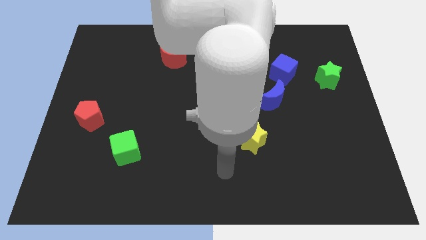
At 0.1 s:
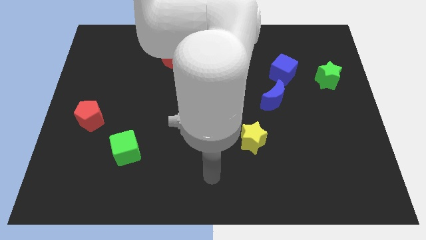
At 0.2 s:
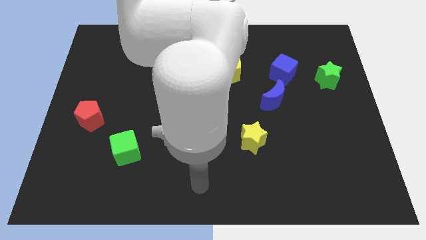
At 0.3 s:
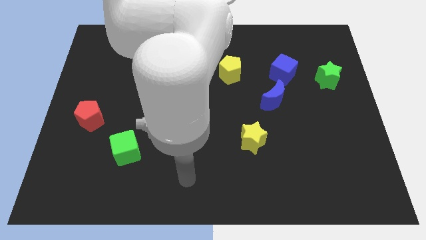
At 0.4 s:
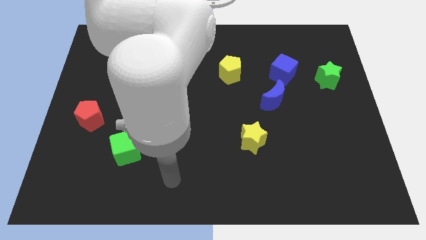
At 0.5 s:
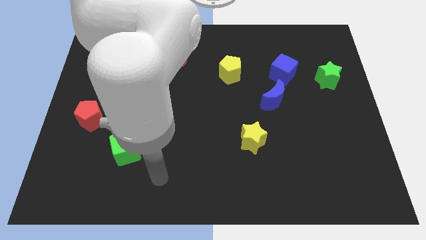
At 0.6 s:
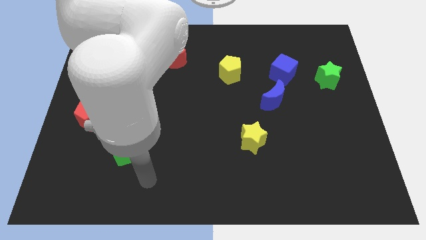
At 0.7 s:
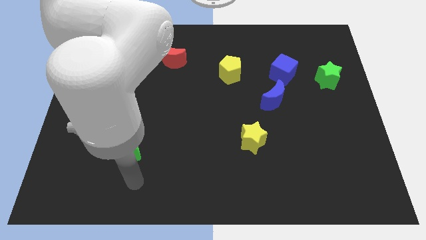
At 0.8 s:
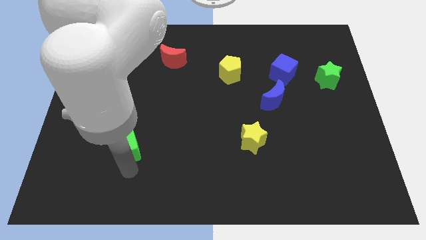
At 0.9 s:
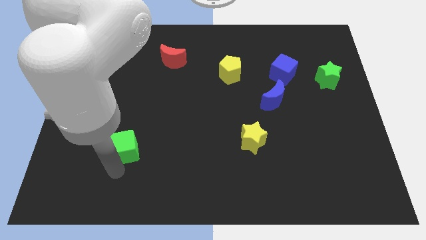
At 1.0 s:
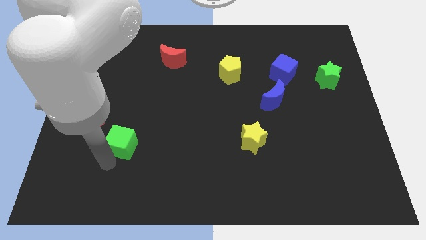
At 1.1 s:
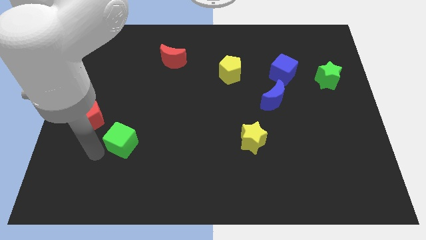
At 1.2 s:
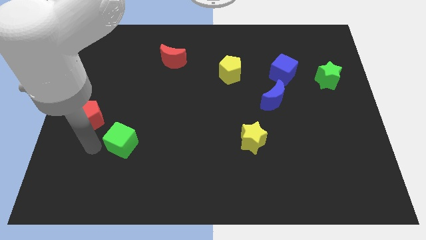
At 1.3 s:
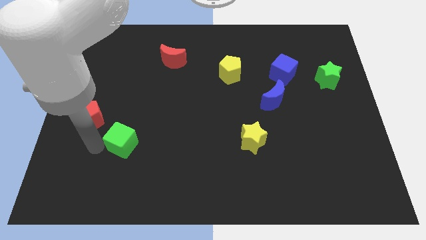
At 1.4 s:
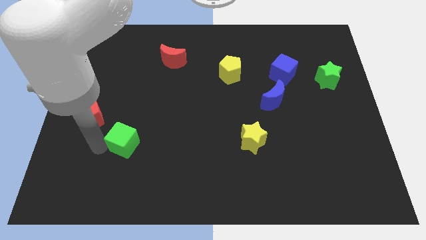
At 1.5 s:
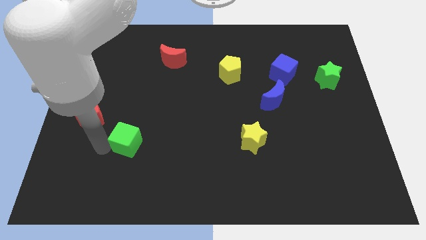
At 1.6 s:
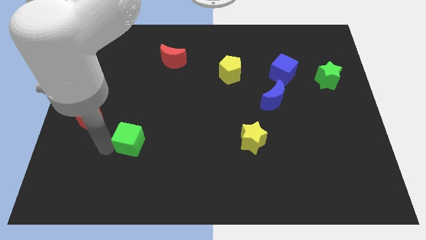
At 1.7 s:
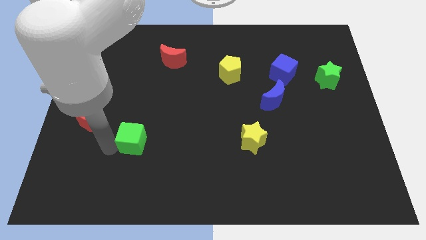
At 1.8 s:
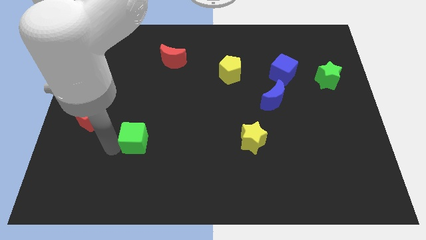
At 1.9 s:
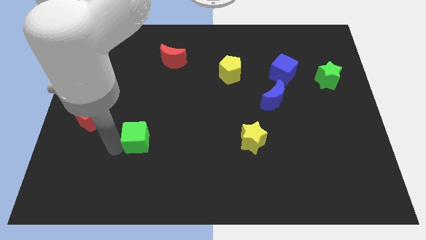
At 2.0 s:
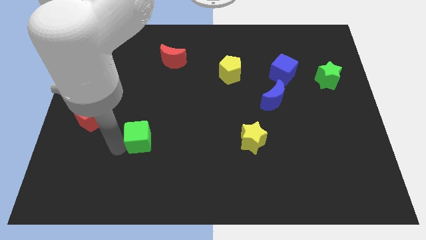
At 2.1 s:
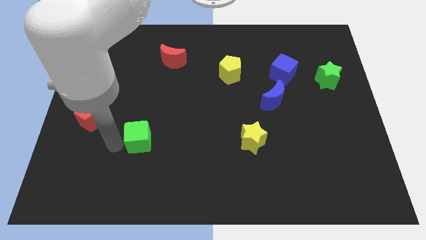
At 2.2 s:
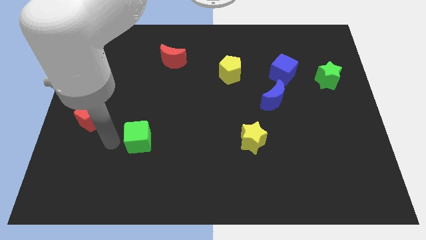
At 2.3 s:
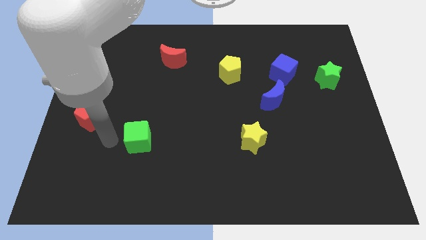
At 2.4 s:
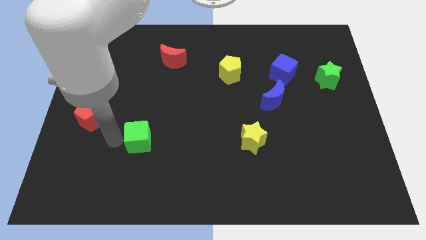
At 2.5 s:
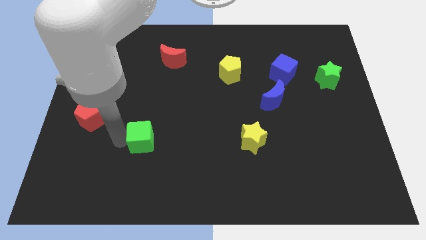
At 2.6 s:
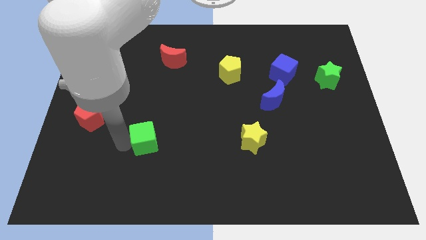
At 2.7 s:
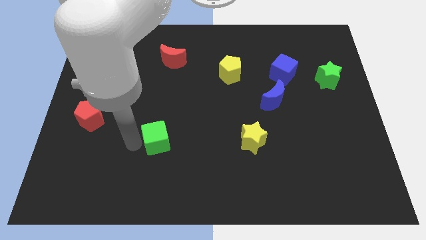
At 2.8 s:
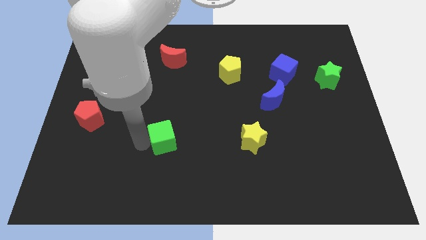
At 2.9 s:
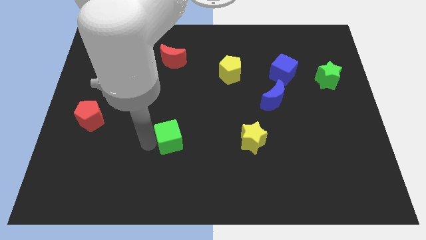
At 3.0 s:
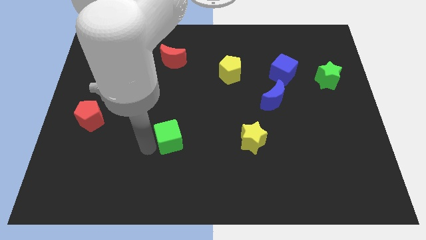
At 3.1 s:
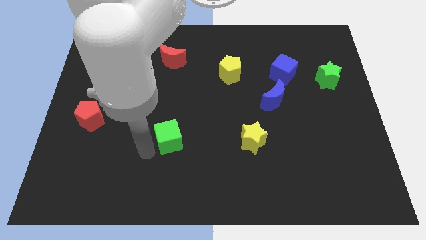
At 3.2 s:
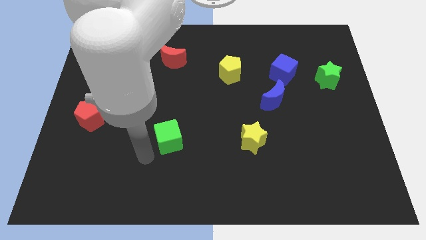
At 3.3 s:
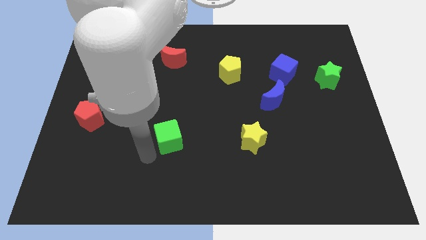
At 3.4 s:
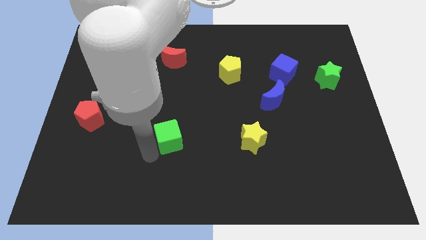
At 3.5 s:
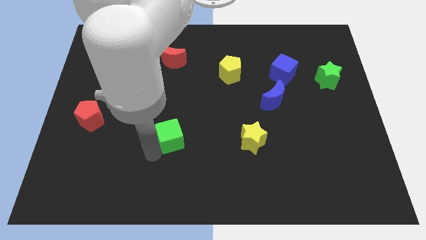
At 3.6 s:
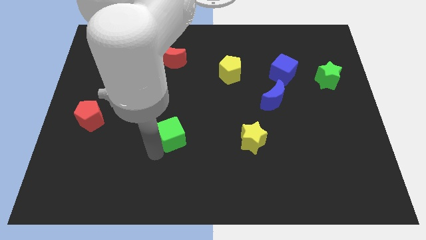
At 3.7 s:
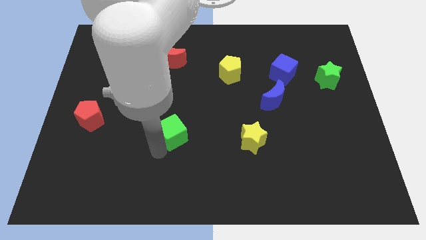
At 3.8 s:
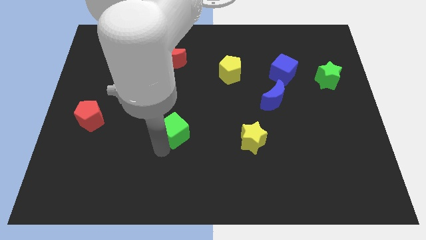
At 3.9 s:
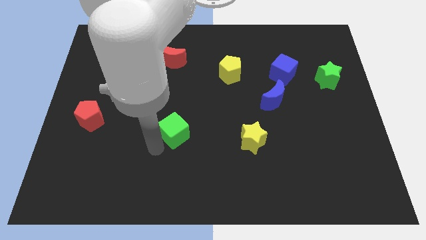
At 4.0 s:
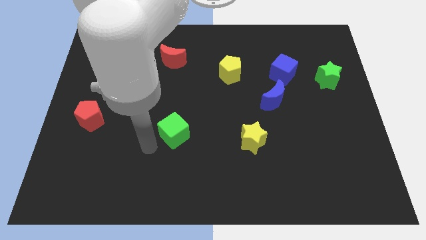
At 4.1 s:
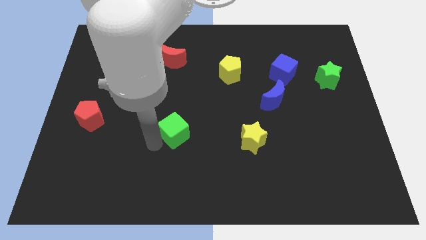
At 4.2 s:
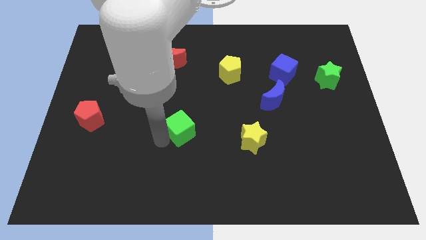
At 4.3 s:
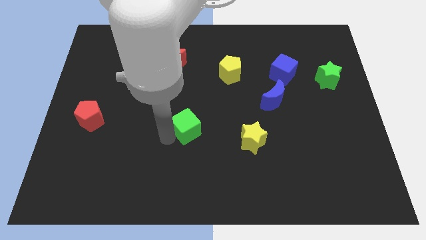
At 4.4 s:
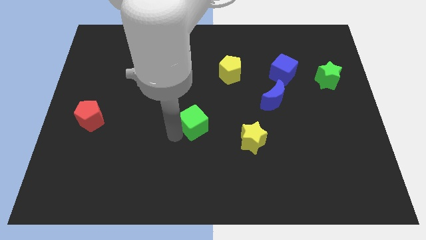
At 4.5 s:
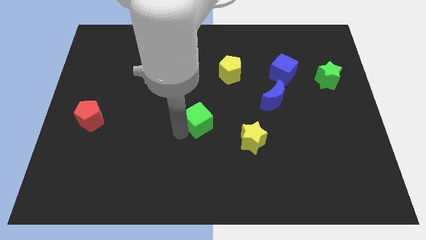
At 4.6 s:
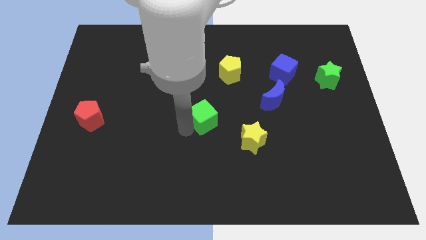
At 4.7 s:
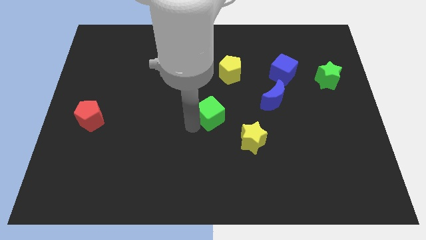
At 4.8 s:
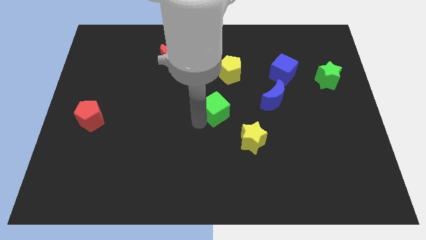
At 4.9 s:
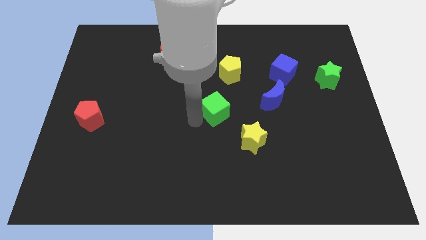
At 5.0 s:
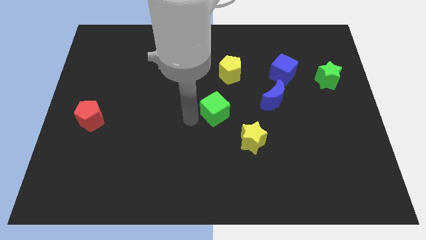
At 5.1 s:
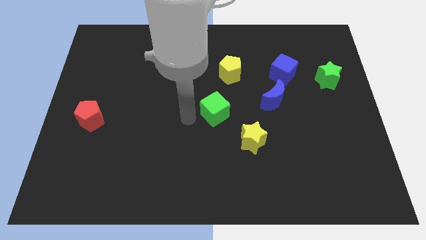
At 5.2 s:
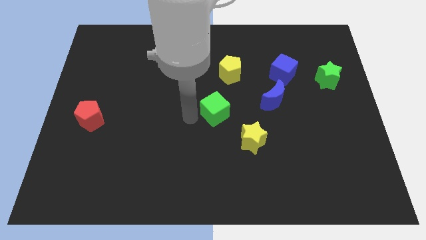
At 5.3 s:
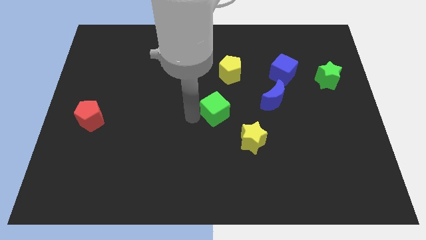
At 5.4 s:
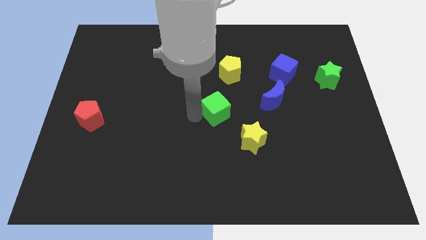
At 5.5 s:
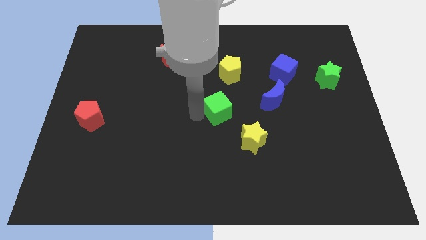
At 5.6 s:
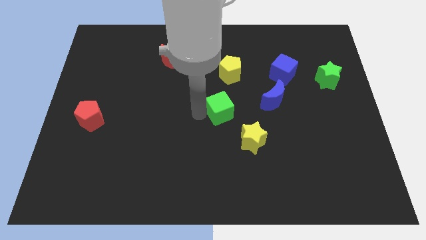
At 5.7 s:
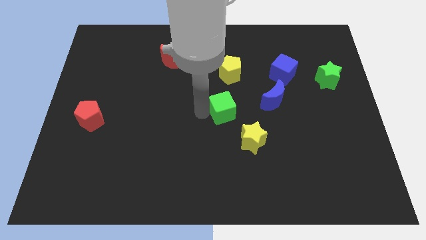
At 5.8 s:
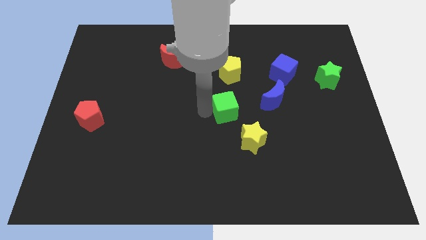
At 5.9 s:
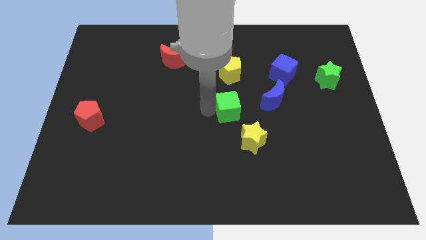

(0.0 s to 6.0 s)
move the green cube to the top side of the yellow star

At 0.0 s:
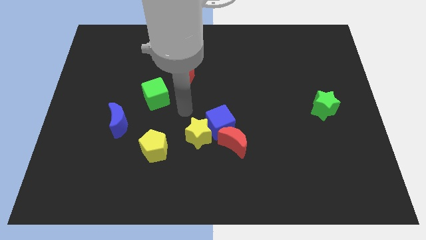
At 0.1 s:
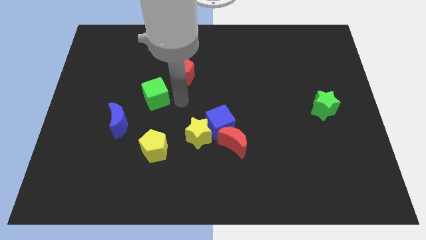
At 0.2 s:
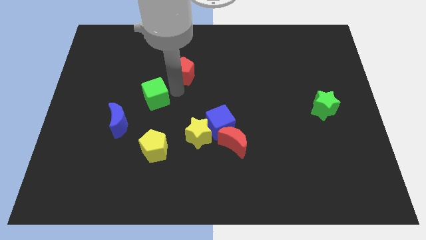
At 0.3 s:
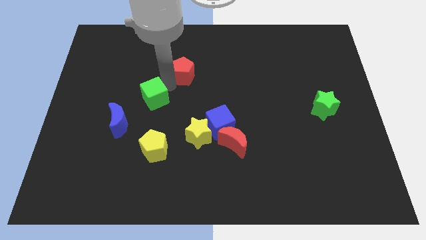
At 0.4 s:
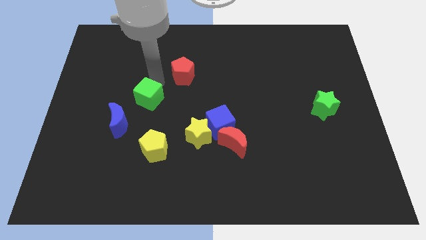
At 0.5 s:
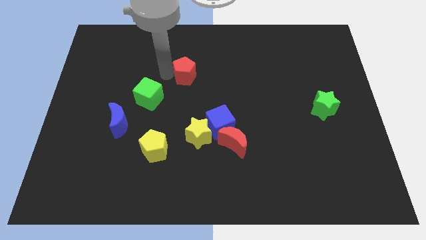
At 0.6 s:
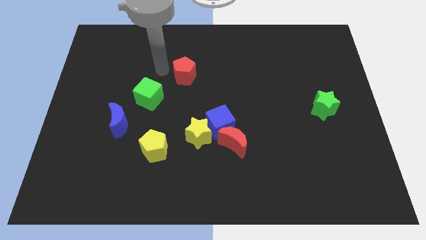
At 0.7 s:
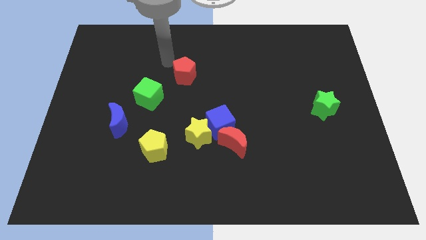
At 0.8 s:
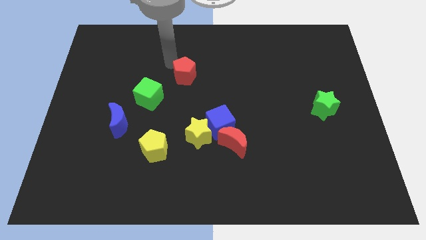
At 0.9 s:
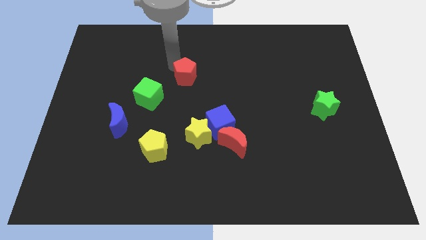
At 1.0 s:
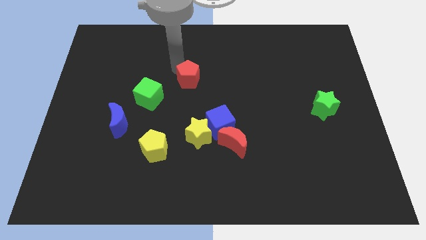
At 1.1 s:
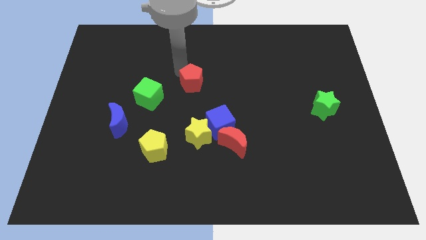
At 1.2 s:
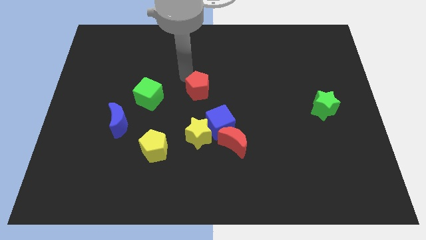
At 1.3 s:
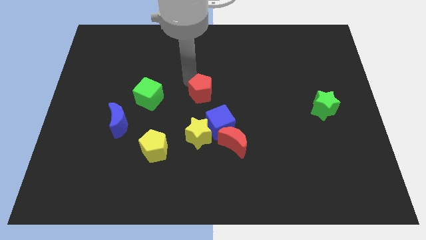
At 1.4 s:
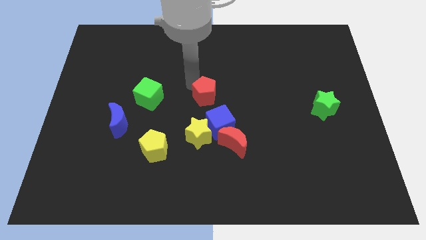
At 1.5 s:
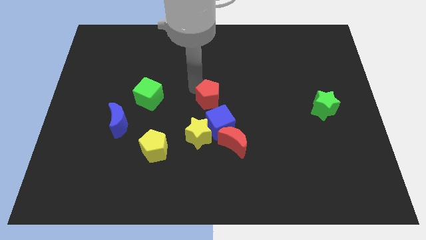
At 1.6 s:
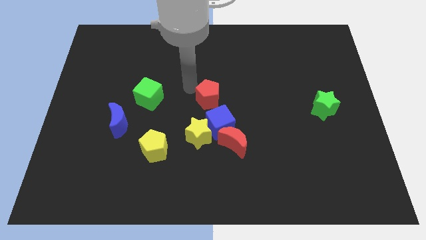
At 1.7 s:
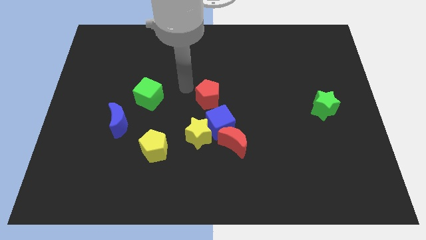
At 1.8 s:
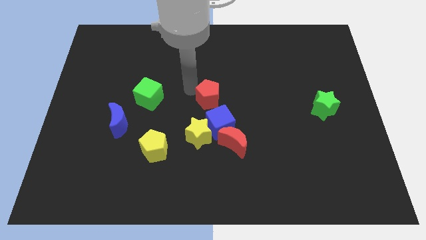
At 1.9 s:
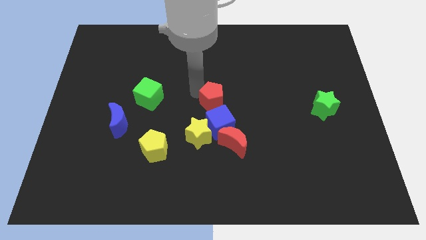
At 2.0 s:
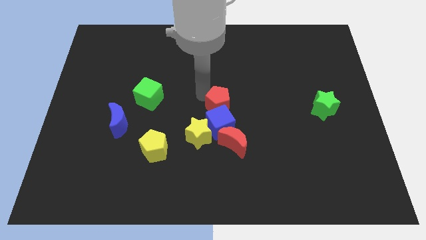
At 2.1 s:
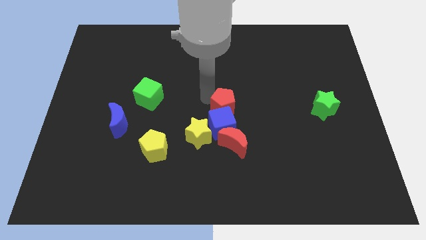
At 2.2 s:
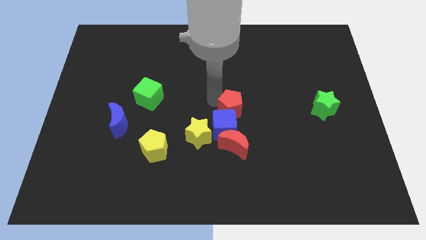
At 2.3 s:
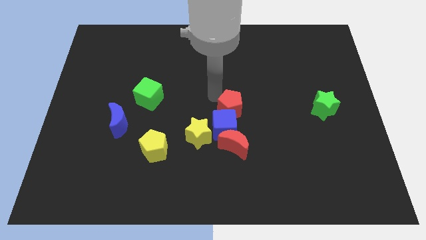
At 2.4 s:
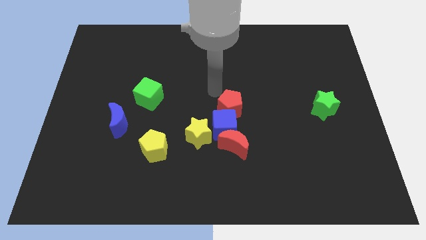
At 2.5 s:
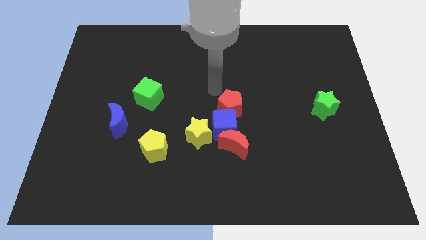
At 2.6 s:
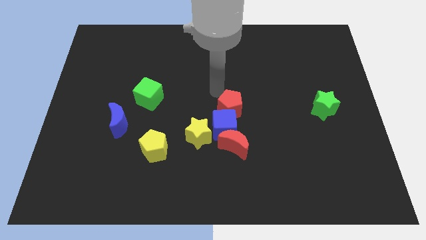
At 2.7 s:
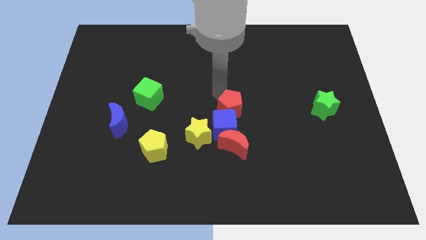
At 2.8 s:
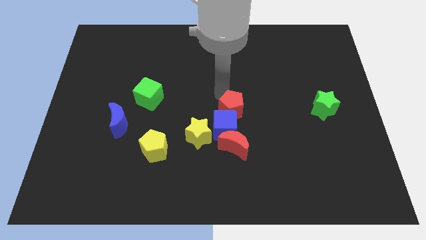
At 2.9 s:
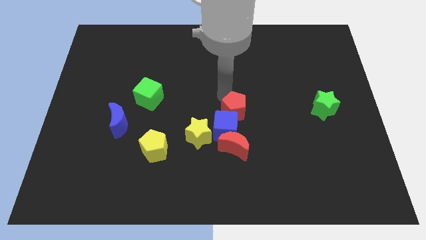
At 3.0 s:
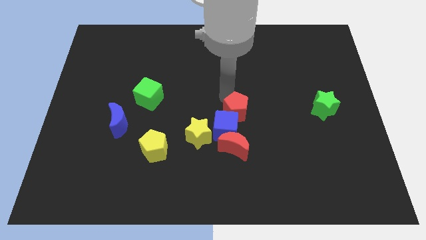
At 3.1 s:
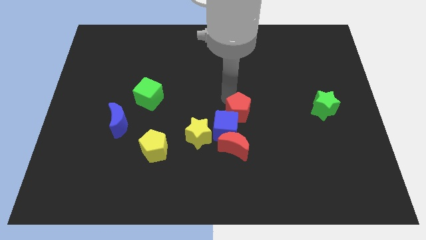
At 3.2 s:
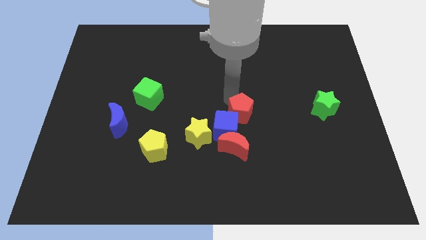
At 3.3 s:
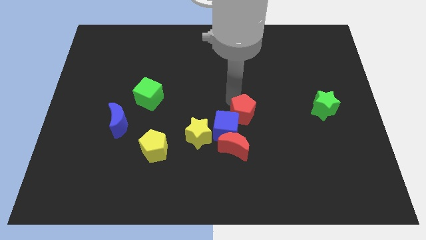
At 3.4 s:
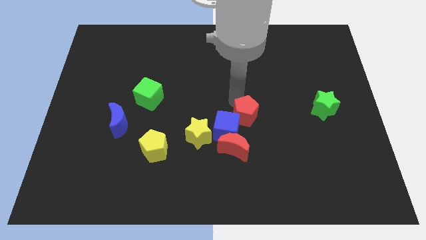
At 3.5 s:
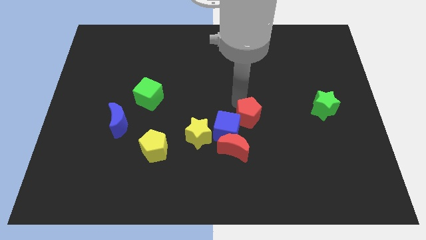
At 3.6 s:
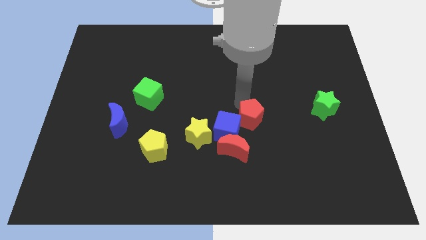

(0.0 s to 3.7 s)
put the red pentagon just right of the yellow star
